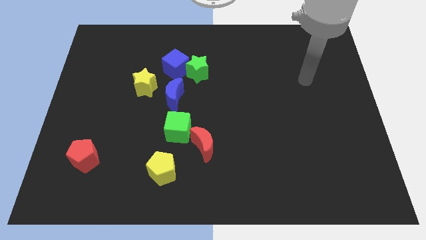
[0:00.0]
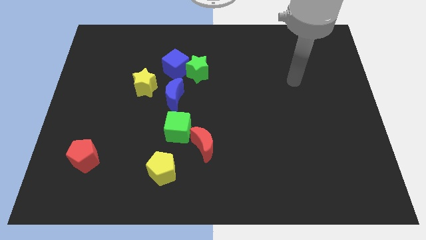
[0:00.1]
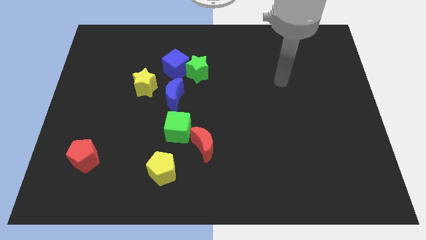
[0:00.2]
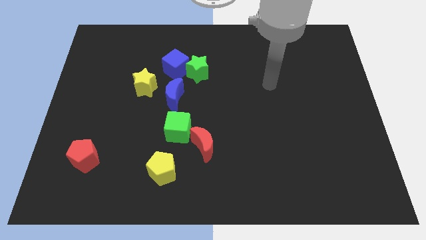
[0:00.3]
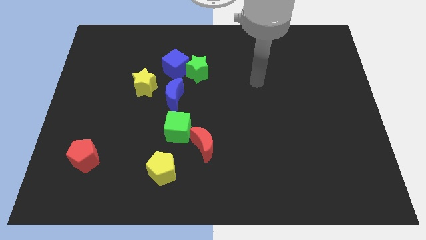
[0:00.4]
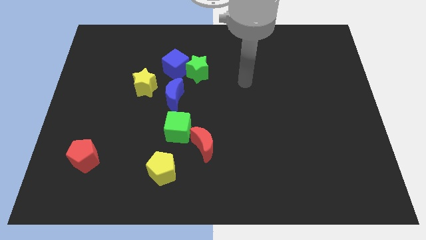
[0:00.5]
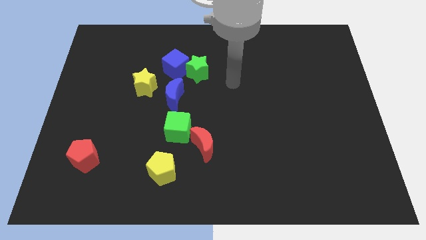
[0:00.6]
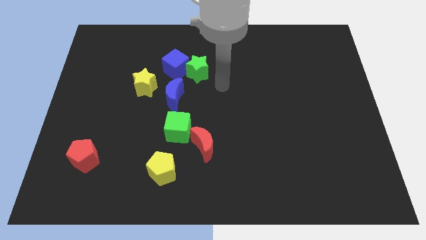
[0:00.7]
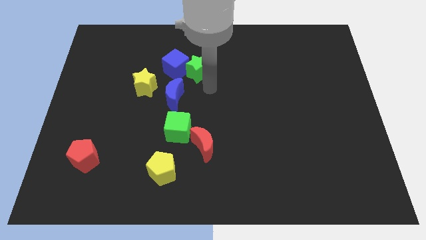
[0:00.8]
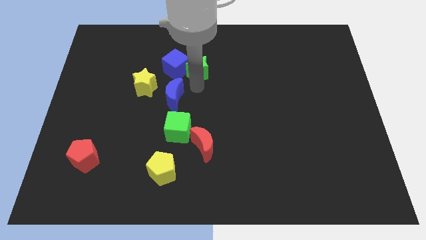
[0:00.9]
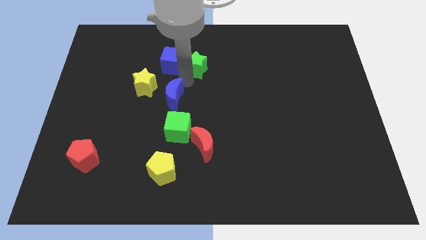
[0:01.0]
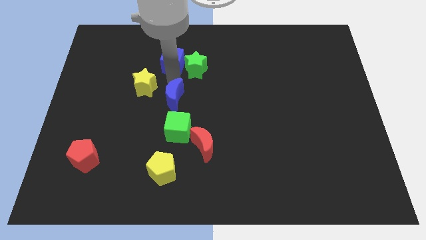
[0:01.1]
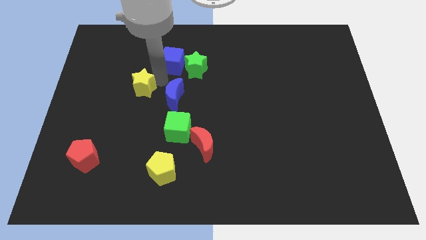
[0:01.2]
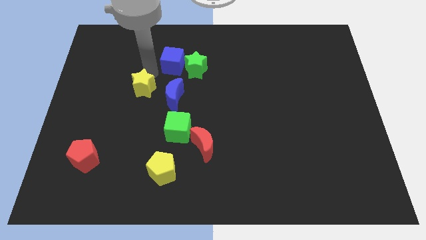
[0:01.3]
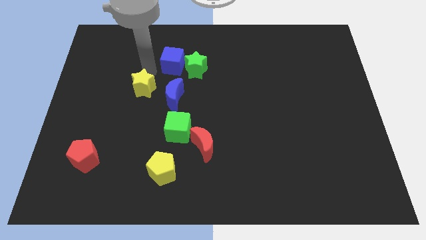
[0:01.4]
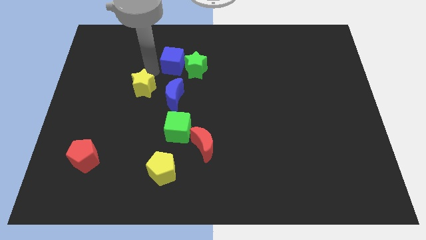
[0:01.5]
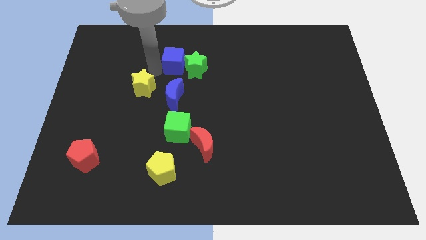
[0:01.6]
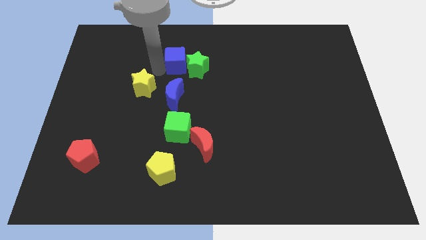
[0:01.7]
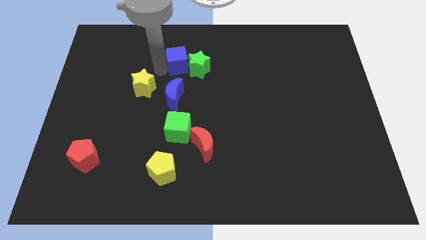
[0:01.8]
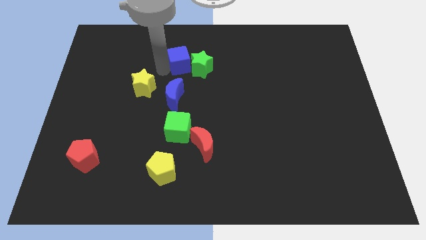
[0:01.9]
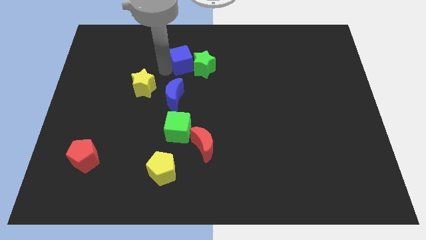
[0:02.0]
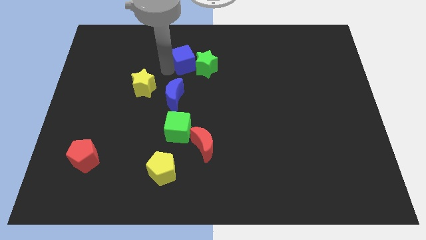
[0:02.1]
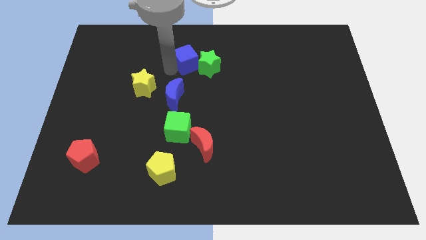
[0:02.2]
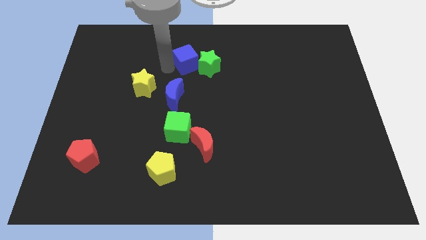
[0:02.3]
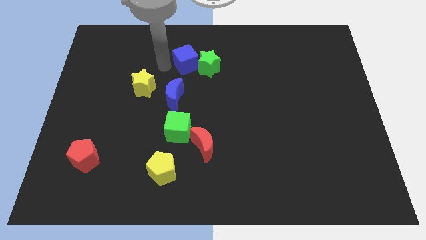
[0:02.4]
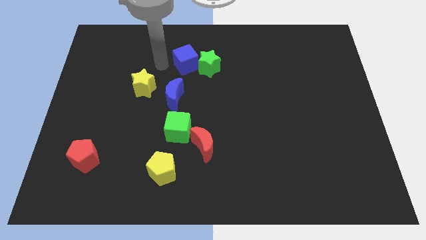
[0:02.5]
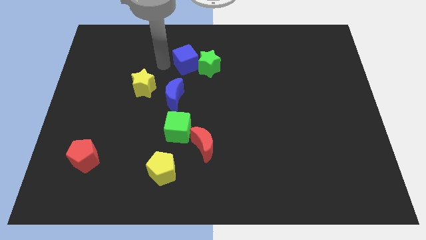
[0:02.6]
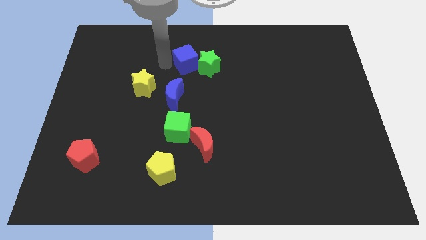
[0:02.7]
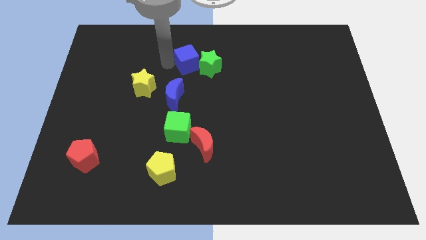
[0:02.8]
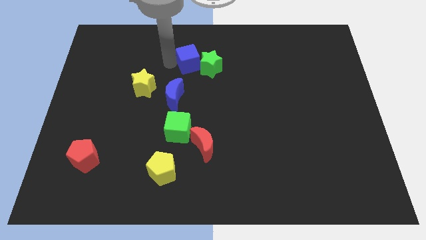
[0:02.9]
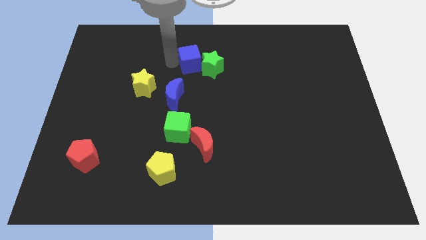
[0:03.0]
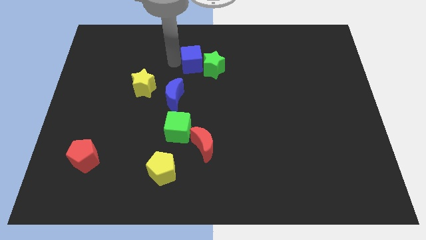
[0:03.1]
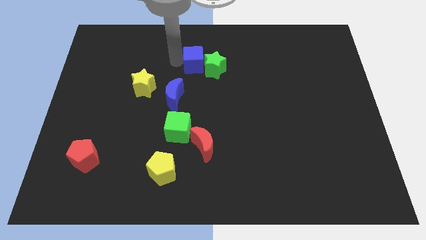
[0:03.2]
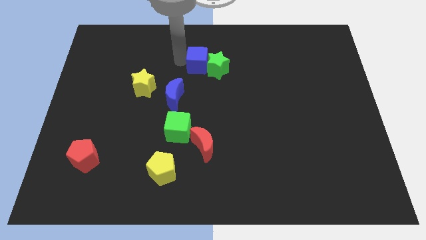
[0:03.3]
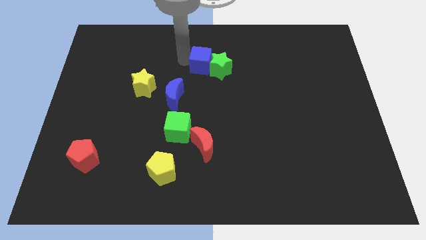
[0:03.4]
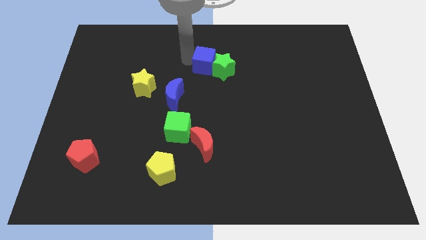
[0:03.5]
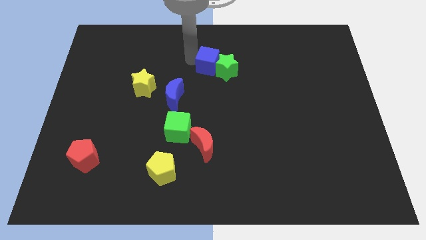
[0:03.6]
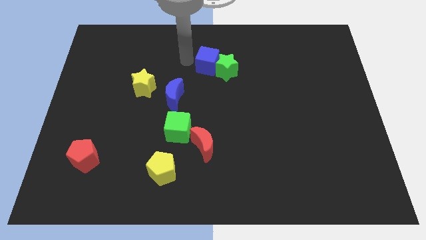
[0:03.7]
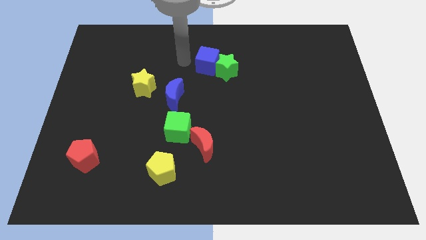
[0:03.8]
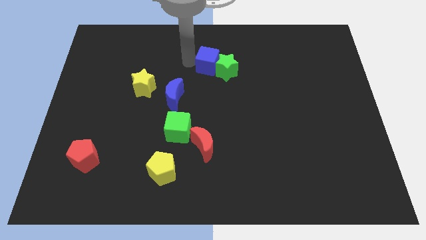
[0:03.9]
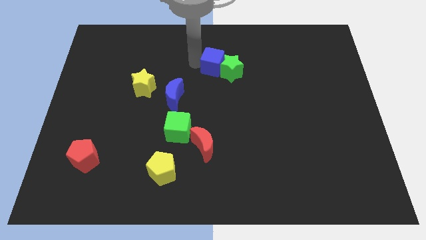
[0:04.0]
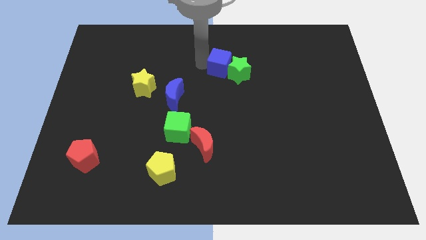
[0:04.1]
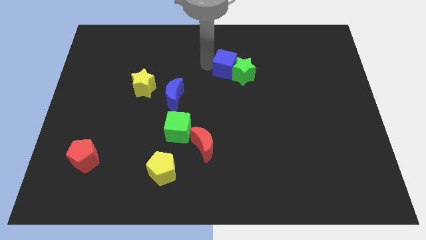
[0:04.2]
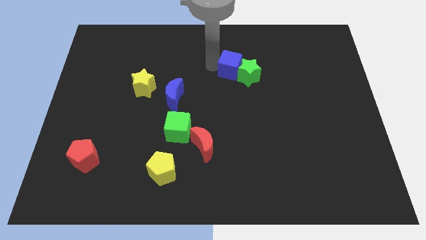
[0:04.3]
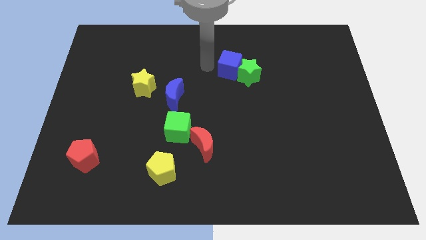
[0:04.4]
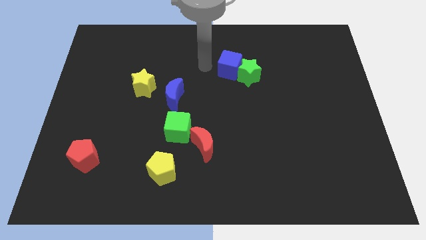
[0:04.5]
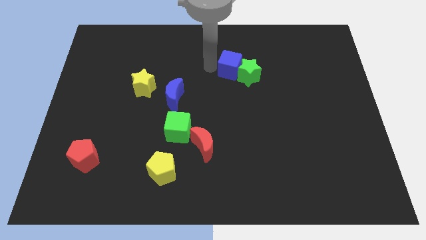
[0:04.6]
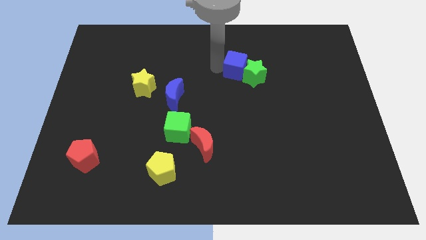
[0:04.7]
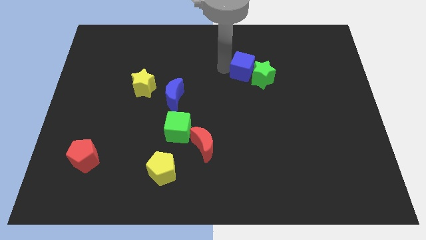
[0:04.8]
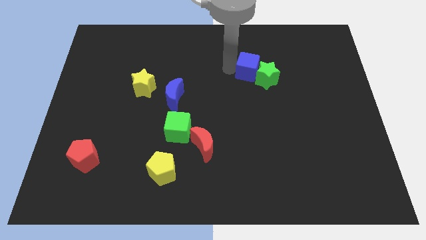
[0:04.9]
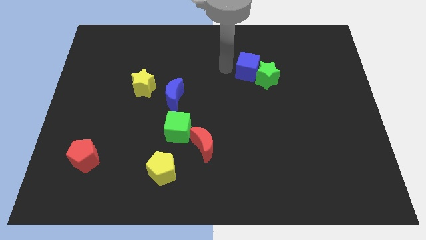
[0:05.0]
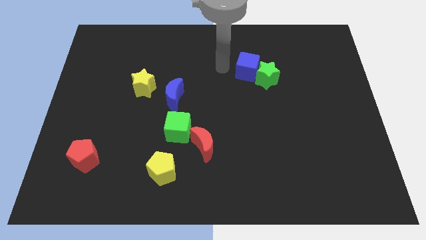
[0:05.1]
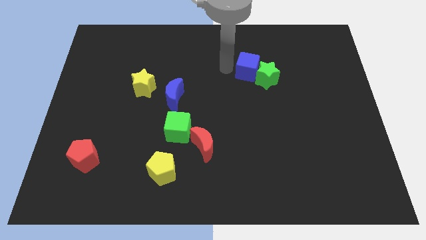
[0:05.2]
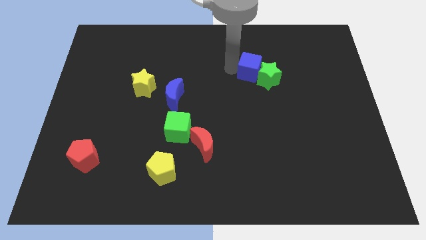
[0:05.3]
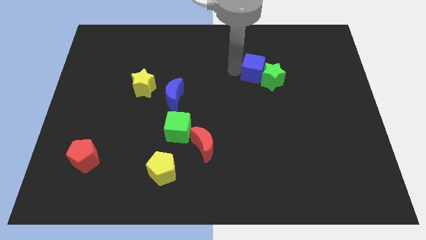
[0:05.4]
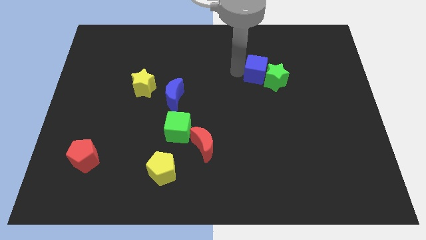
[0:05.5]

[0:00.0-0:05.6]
slide the blue cube to the right

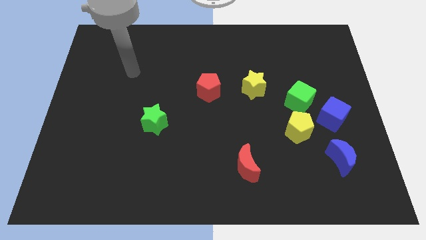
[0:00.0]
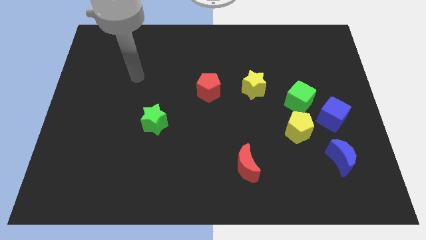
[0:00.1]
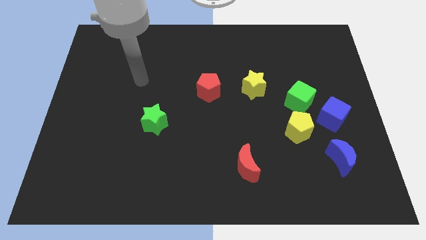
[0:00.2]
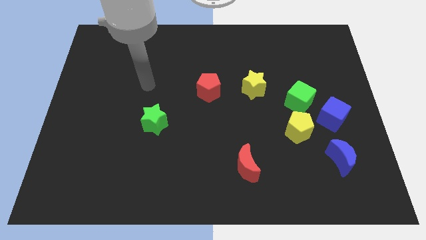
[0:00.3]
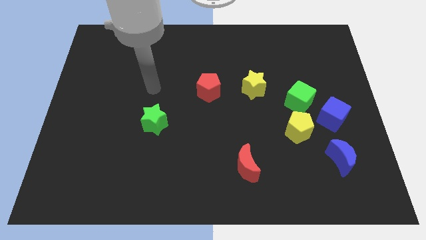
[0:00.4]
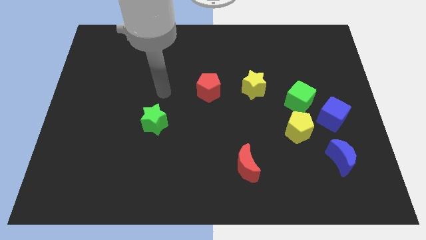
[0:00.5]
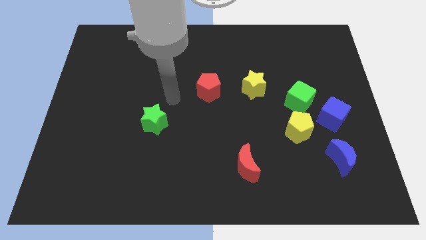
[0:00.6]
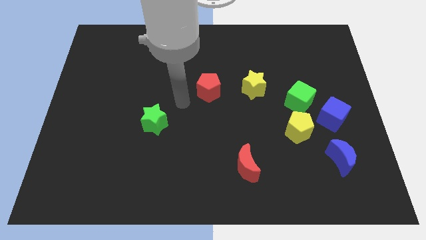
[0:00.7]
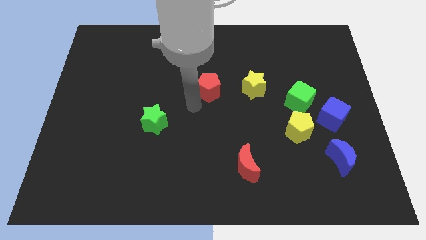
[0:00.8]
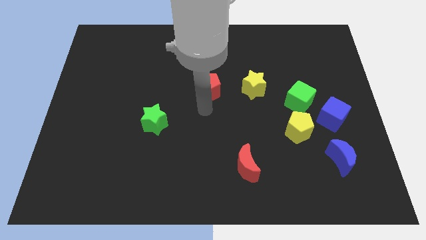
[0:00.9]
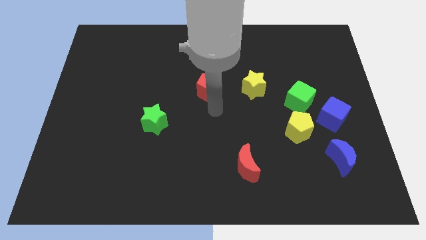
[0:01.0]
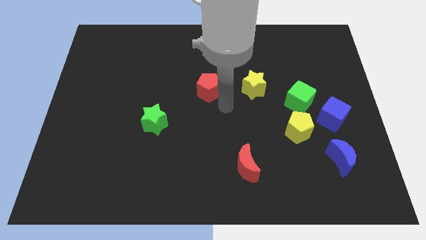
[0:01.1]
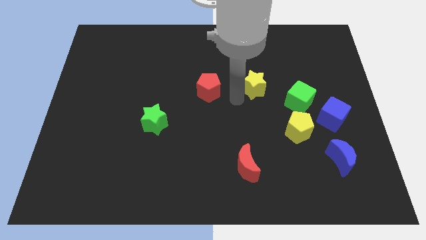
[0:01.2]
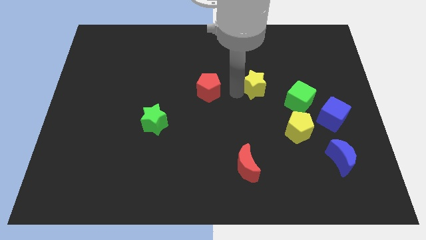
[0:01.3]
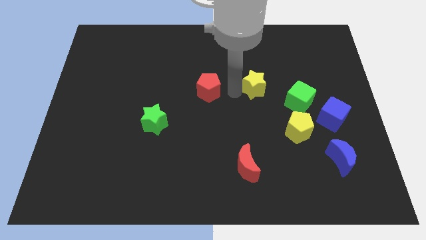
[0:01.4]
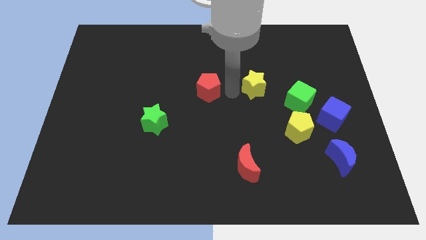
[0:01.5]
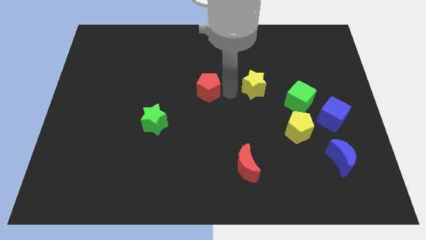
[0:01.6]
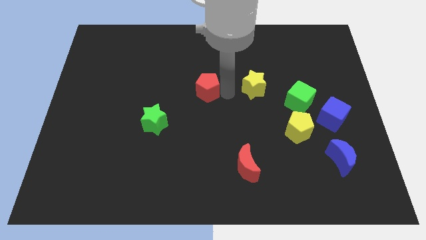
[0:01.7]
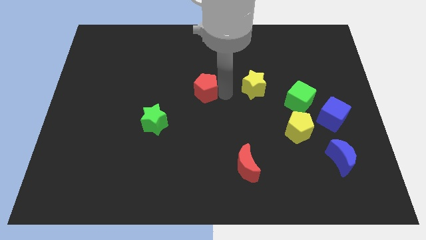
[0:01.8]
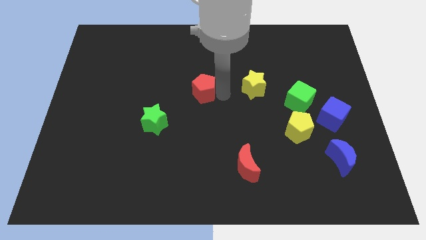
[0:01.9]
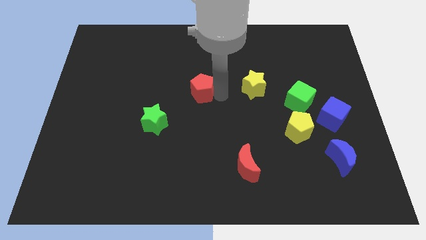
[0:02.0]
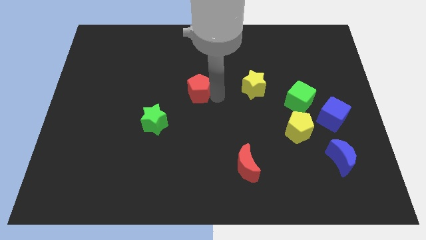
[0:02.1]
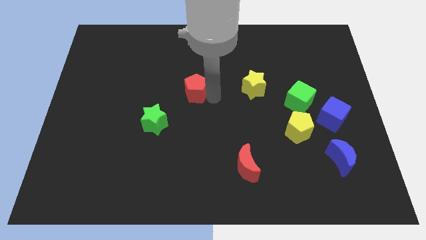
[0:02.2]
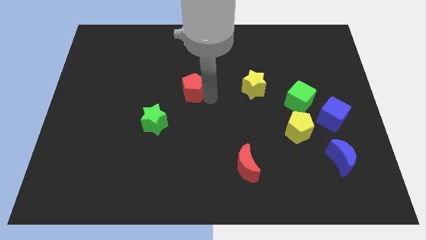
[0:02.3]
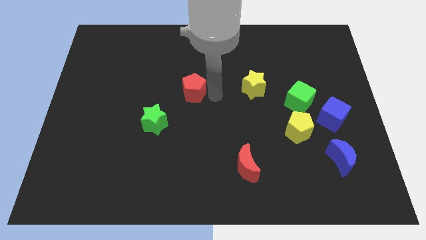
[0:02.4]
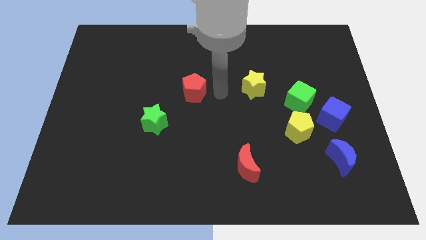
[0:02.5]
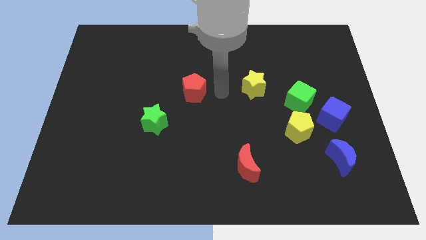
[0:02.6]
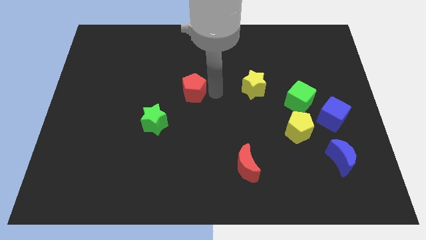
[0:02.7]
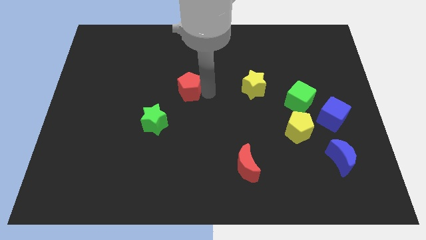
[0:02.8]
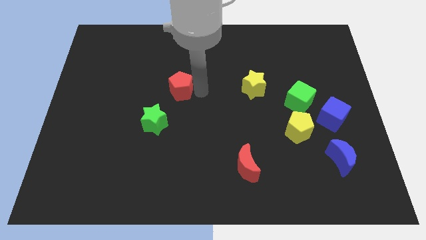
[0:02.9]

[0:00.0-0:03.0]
slightly slide the red pentagon to the left
